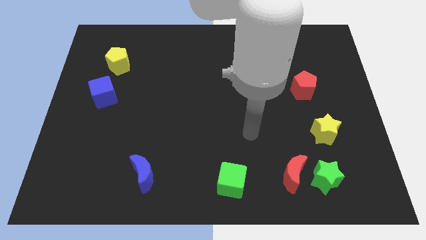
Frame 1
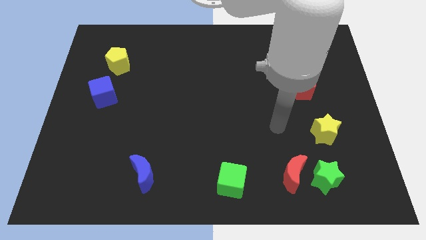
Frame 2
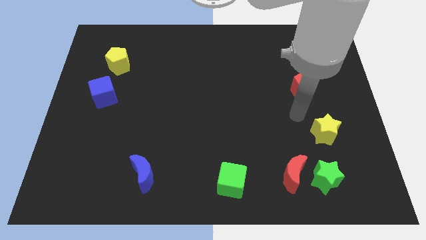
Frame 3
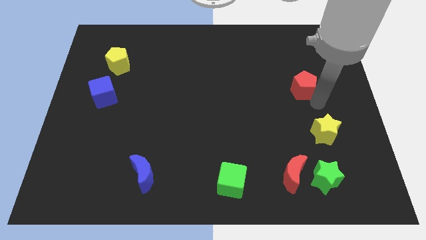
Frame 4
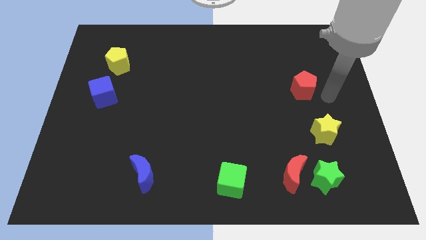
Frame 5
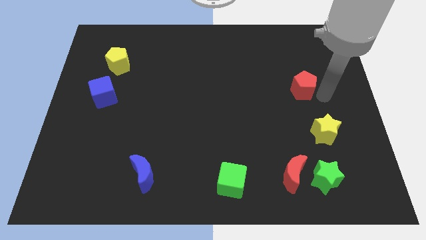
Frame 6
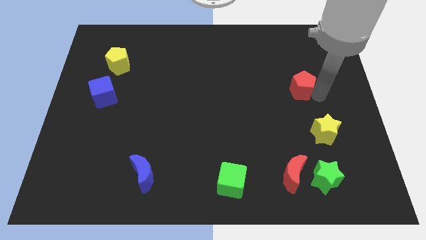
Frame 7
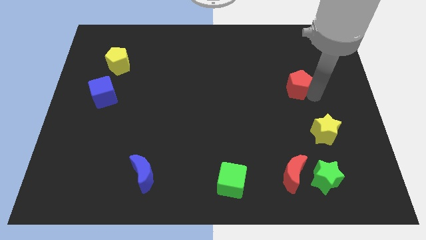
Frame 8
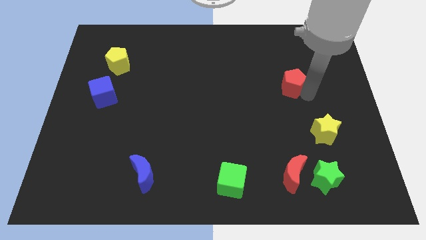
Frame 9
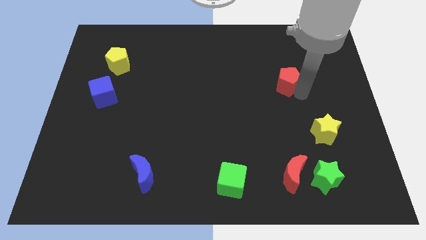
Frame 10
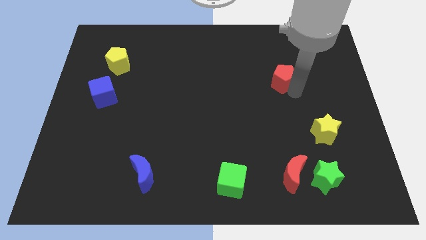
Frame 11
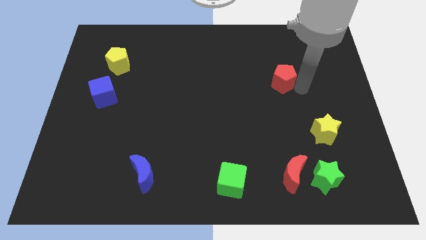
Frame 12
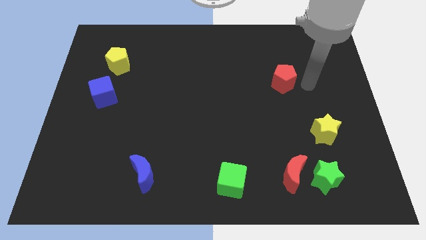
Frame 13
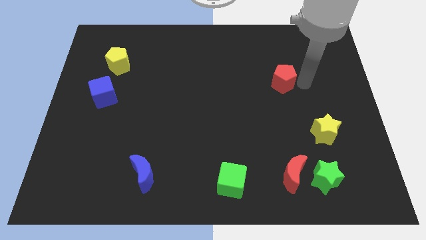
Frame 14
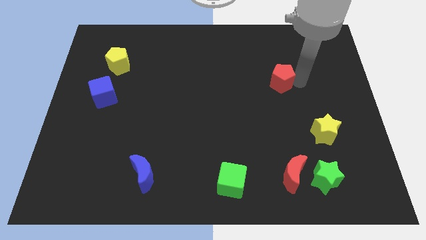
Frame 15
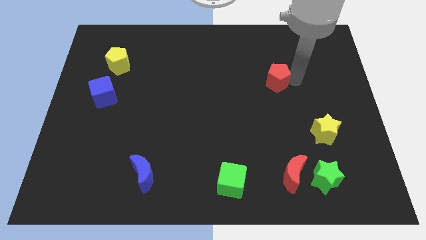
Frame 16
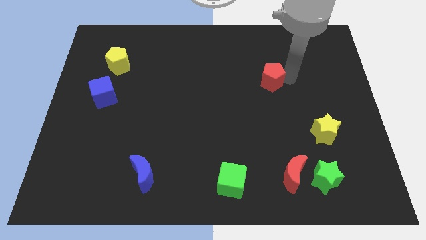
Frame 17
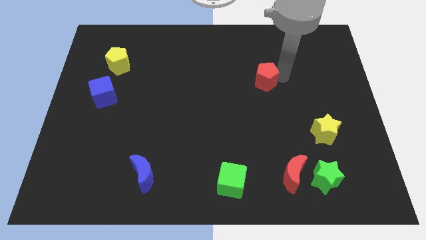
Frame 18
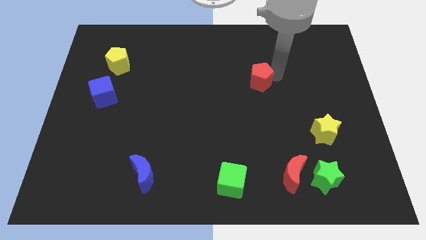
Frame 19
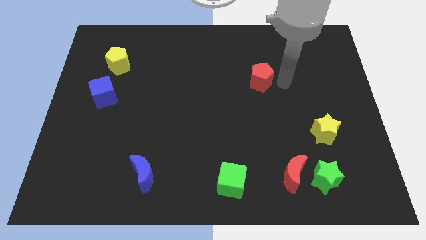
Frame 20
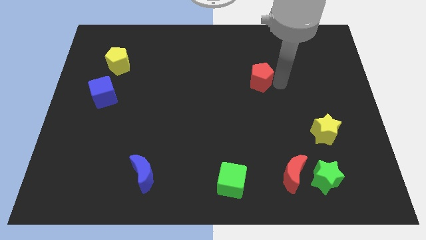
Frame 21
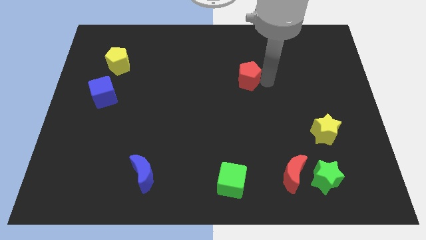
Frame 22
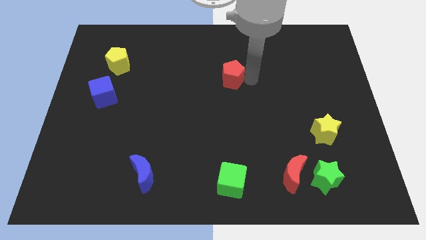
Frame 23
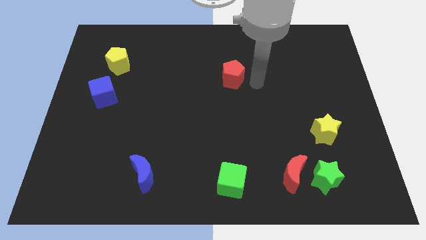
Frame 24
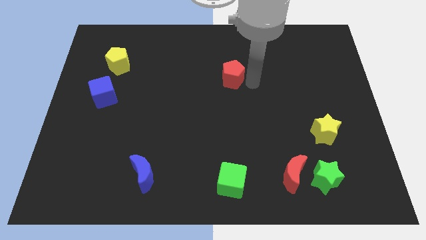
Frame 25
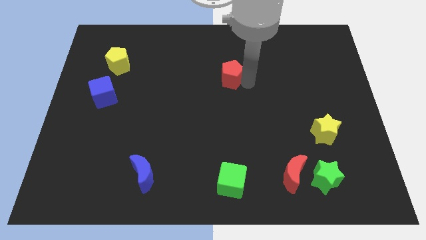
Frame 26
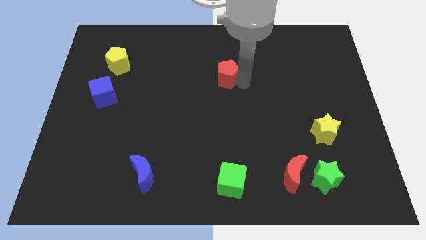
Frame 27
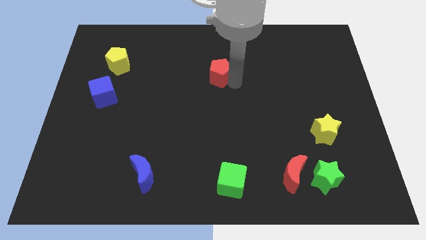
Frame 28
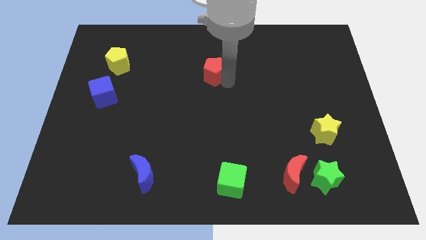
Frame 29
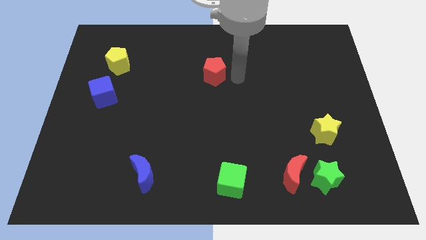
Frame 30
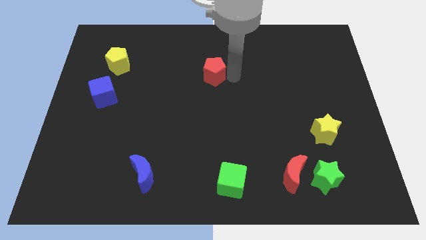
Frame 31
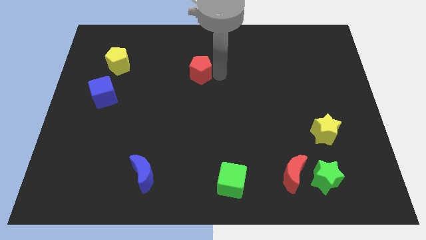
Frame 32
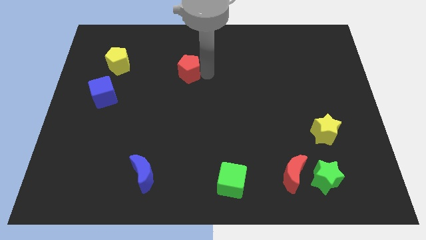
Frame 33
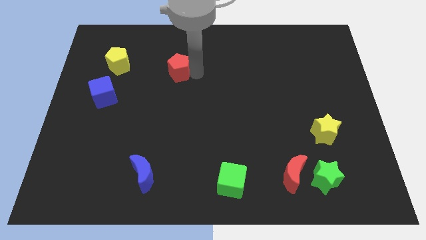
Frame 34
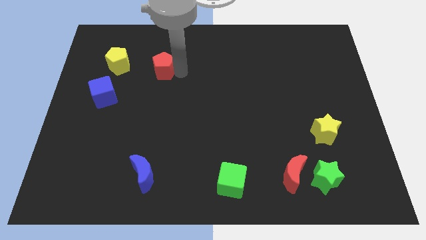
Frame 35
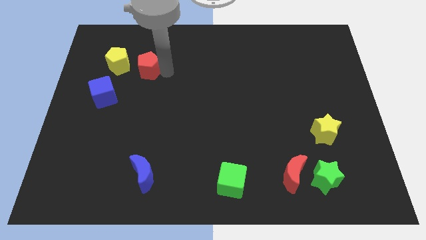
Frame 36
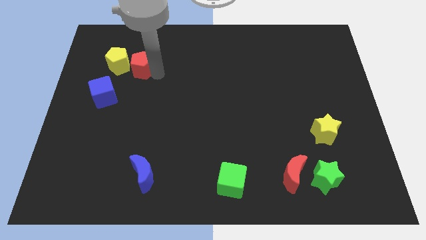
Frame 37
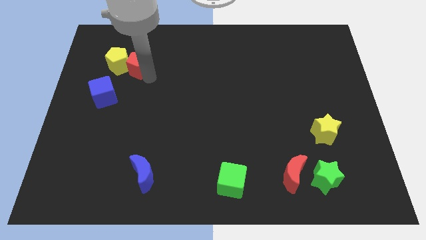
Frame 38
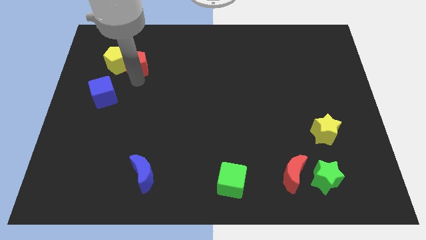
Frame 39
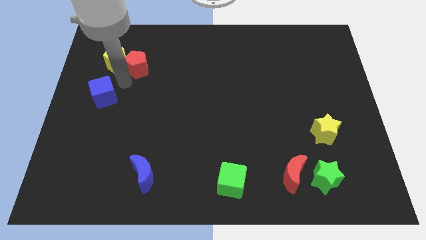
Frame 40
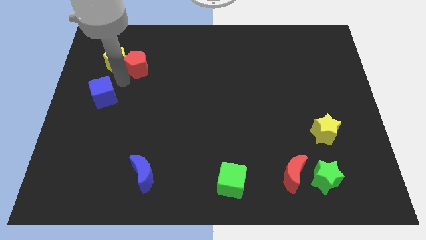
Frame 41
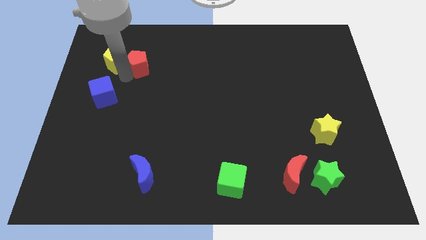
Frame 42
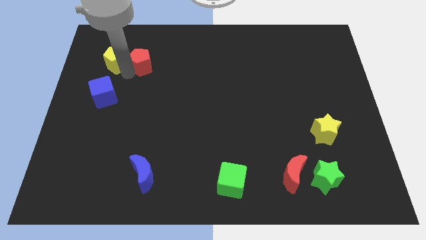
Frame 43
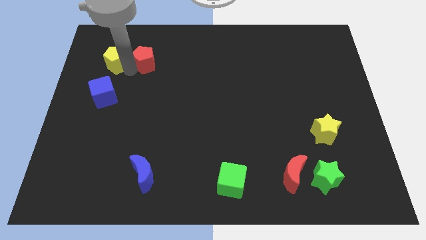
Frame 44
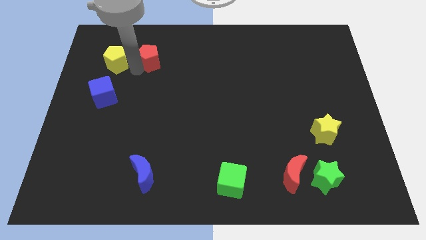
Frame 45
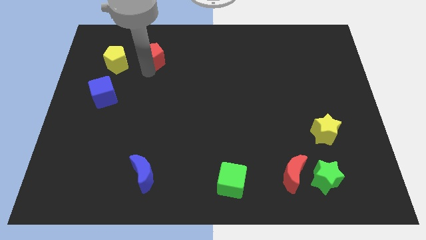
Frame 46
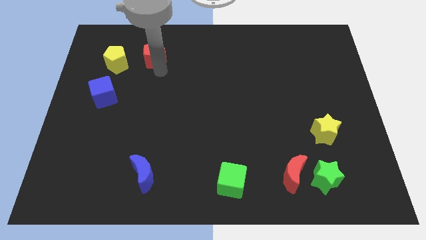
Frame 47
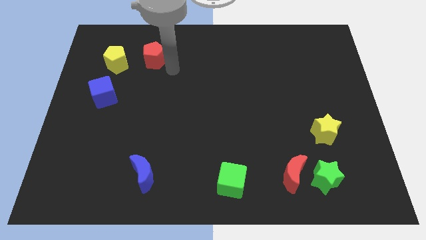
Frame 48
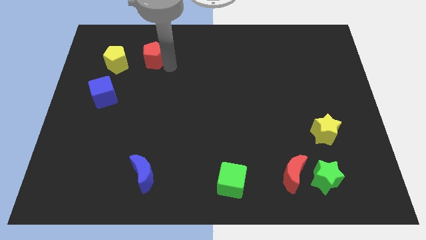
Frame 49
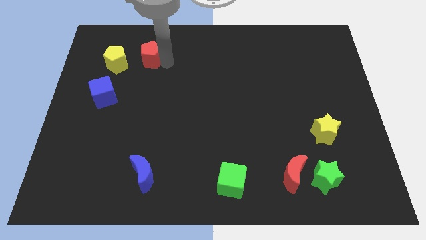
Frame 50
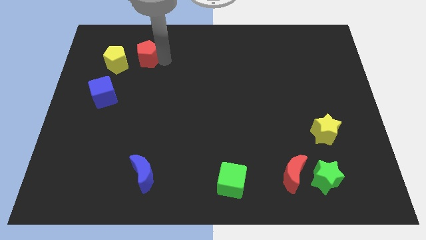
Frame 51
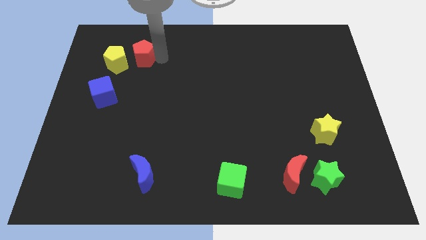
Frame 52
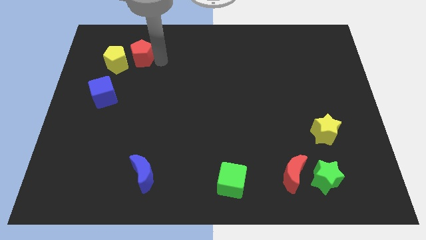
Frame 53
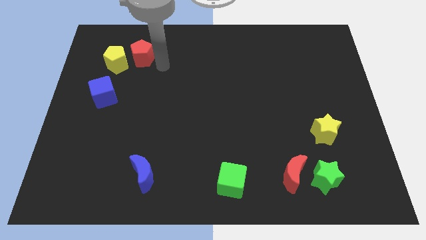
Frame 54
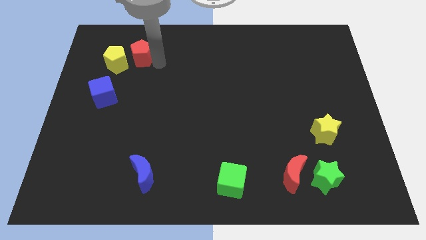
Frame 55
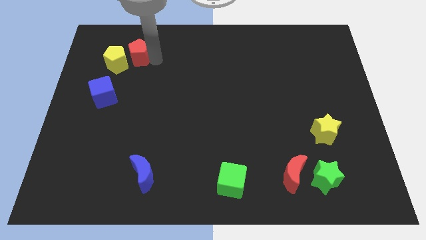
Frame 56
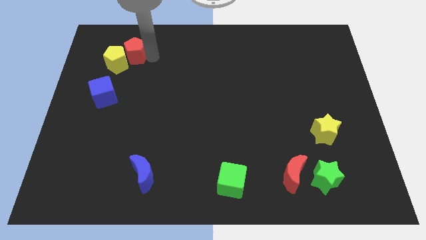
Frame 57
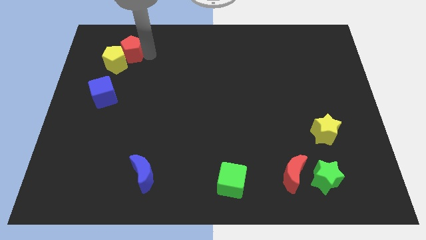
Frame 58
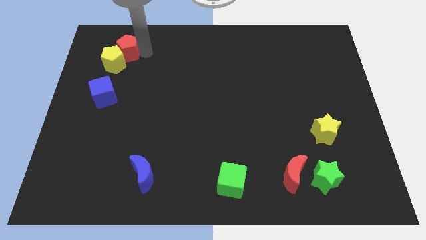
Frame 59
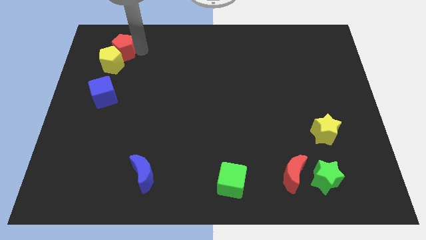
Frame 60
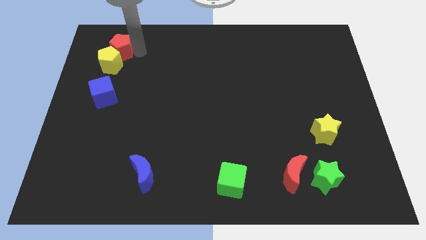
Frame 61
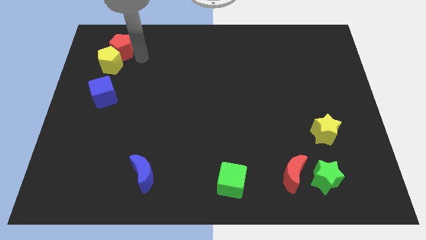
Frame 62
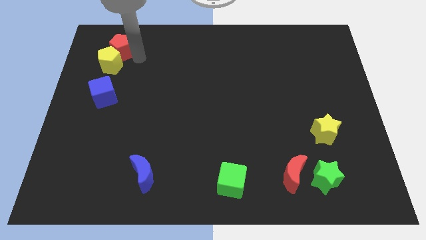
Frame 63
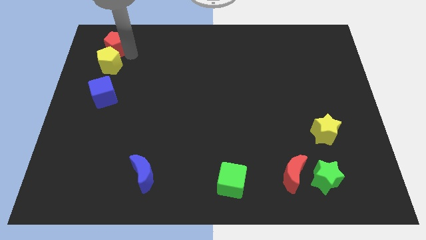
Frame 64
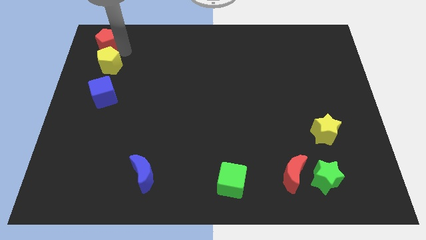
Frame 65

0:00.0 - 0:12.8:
push the red pentagon to the top left
